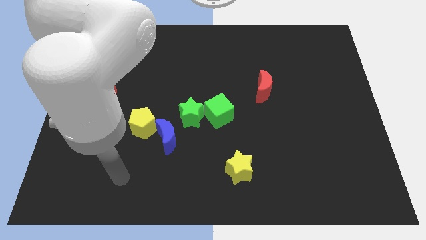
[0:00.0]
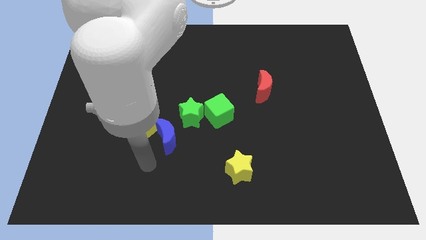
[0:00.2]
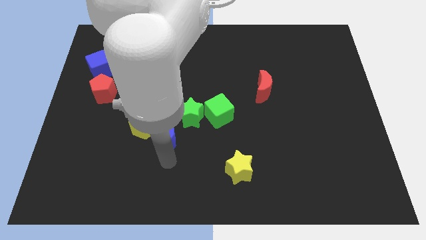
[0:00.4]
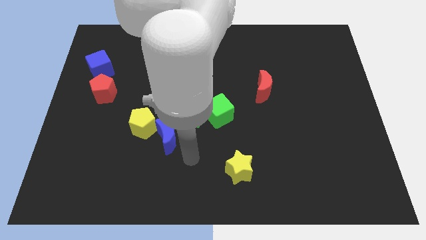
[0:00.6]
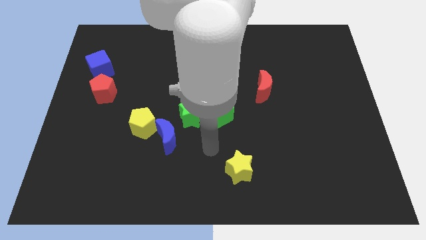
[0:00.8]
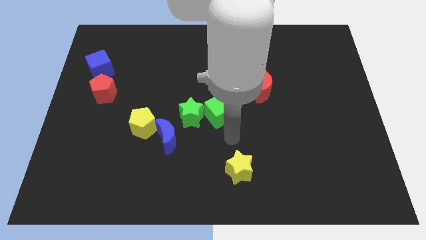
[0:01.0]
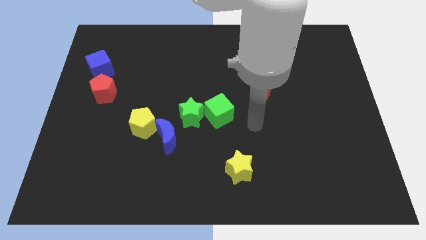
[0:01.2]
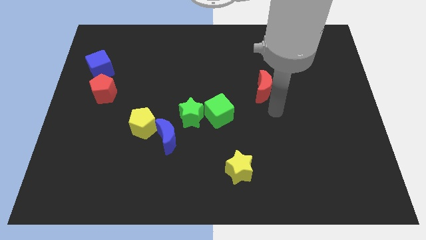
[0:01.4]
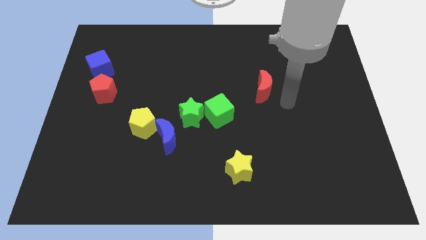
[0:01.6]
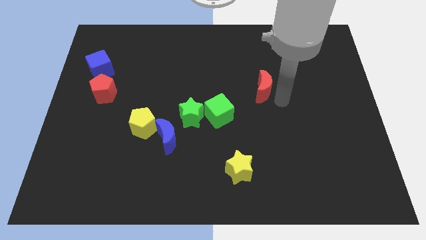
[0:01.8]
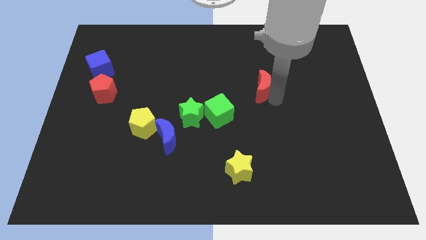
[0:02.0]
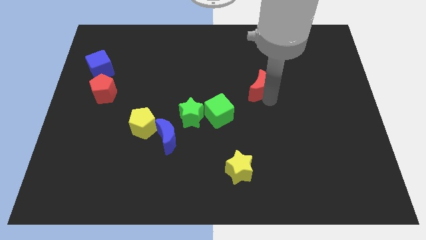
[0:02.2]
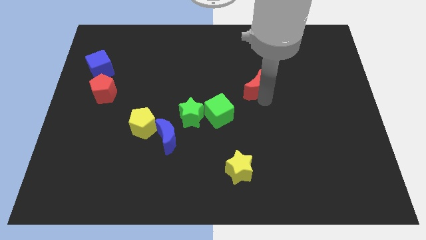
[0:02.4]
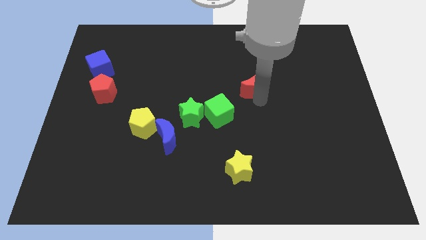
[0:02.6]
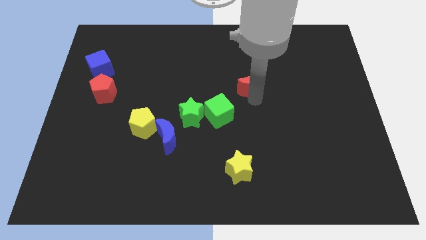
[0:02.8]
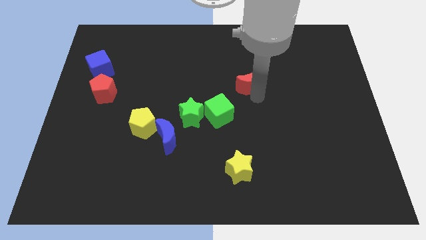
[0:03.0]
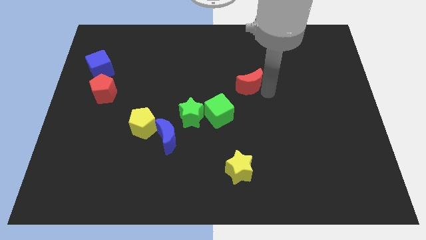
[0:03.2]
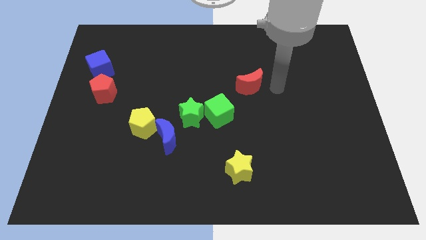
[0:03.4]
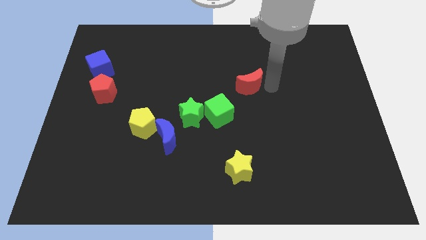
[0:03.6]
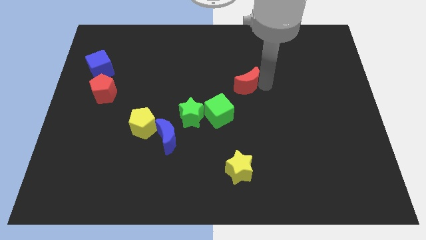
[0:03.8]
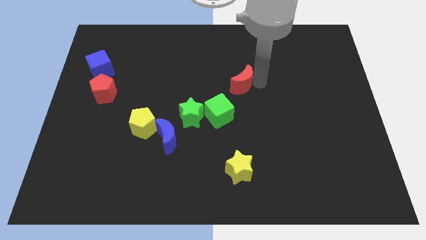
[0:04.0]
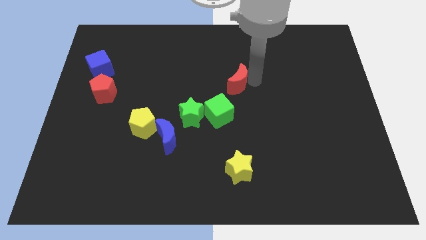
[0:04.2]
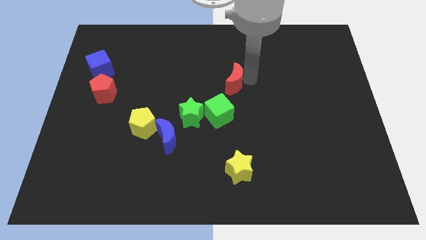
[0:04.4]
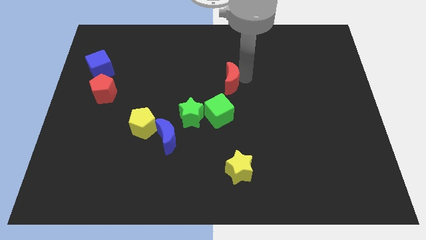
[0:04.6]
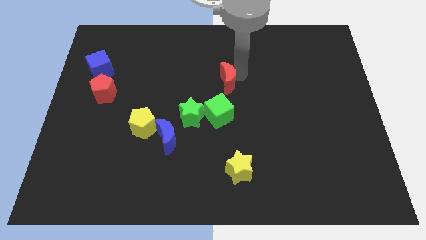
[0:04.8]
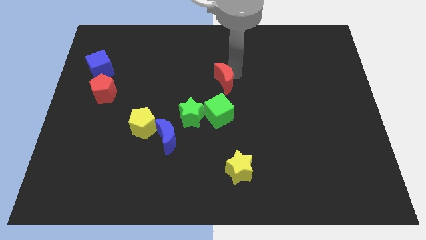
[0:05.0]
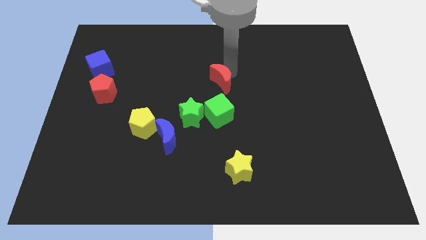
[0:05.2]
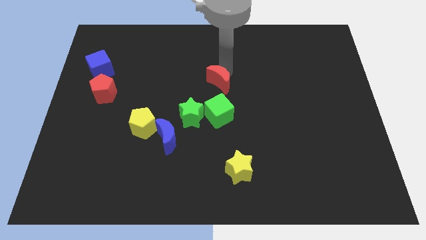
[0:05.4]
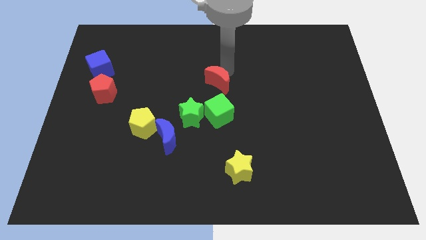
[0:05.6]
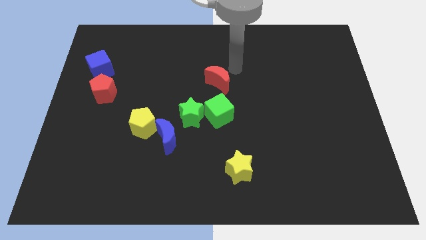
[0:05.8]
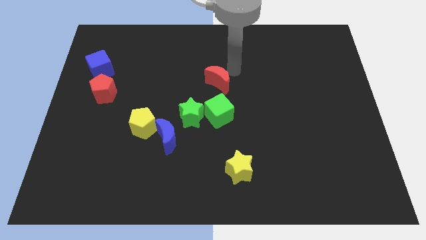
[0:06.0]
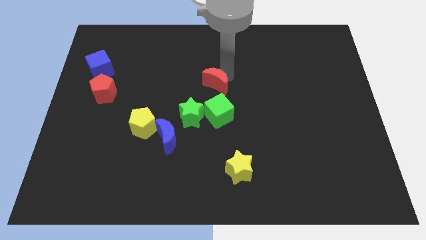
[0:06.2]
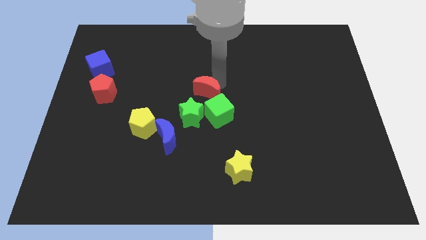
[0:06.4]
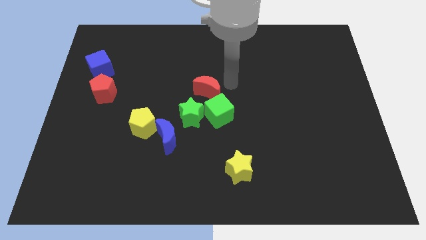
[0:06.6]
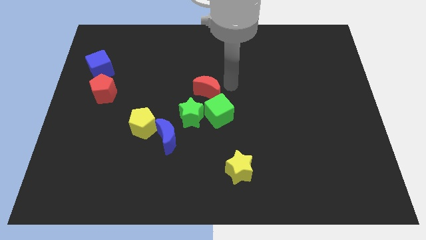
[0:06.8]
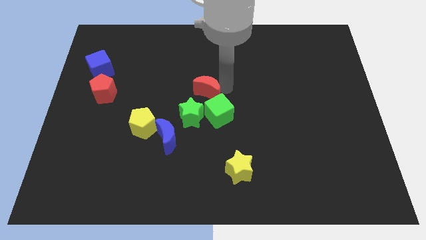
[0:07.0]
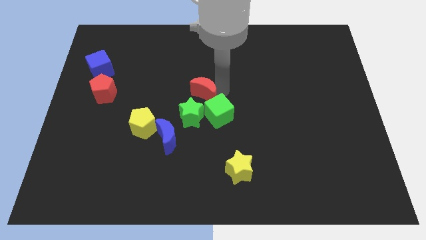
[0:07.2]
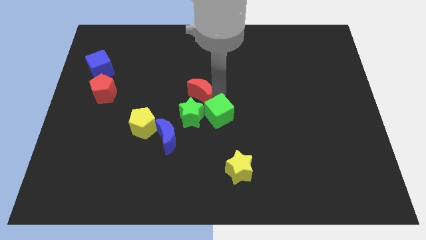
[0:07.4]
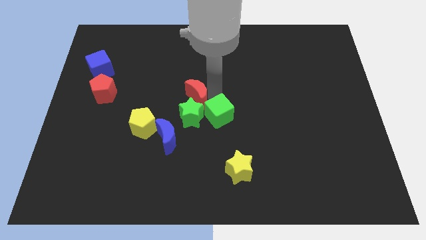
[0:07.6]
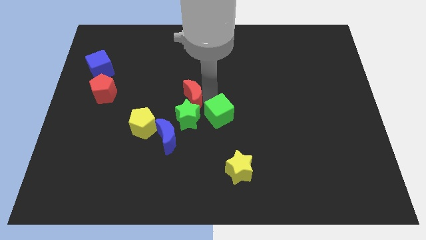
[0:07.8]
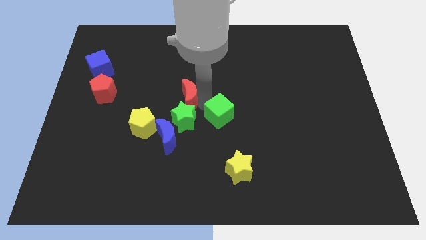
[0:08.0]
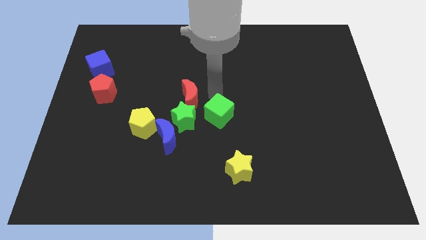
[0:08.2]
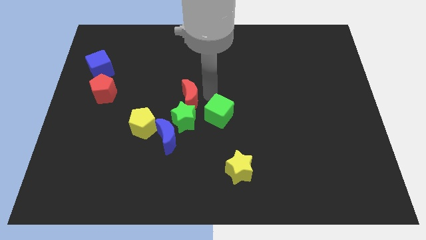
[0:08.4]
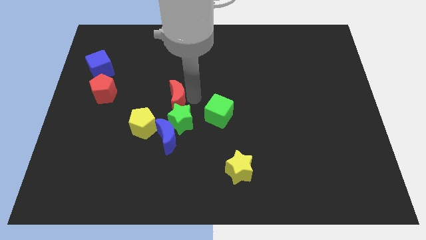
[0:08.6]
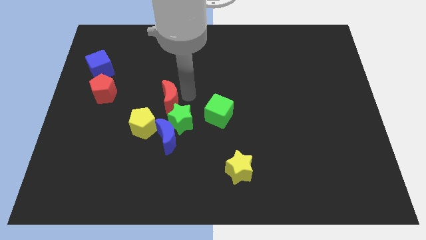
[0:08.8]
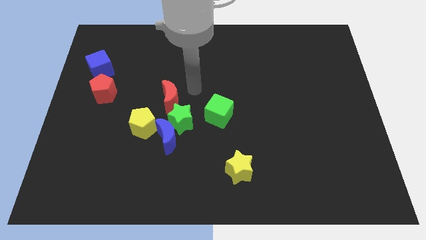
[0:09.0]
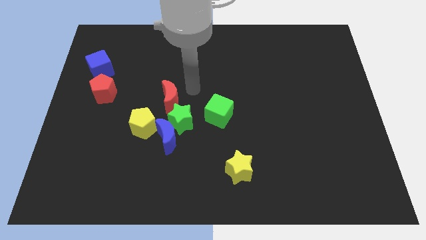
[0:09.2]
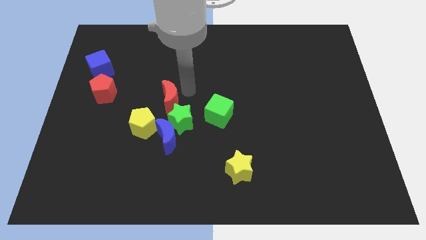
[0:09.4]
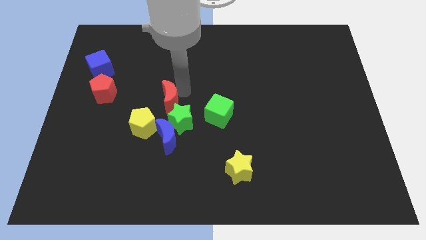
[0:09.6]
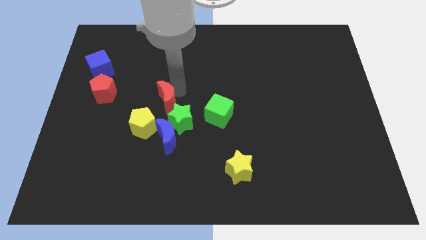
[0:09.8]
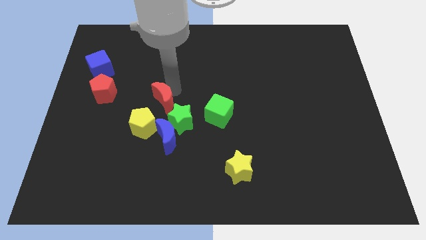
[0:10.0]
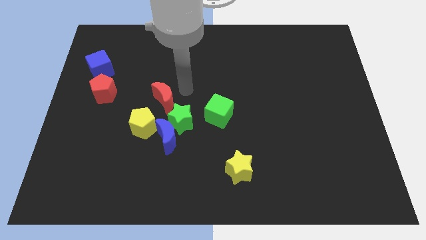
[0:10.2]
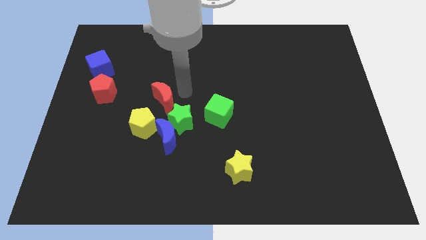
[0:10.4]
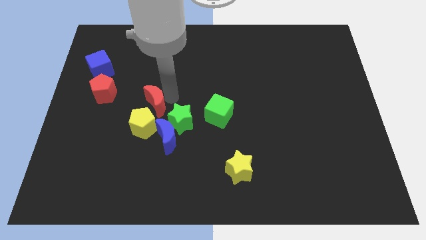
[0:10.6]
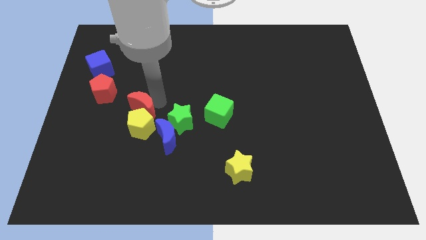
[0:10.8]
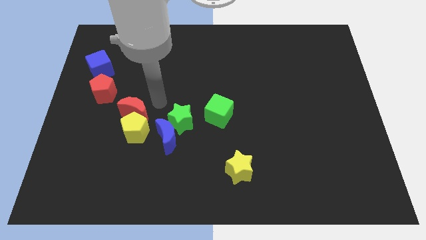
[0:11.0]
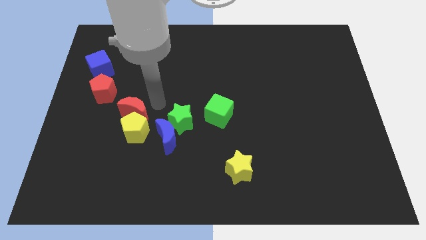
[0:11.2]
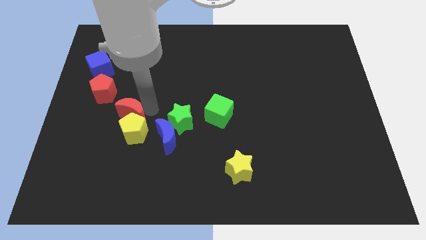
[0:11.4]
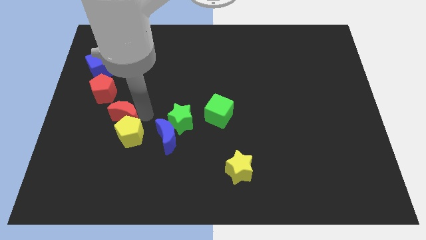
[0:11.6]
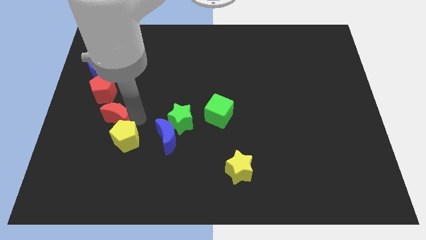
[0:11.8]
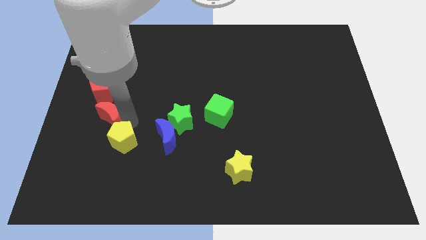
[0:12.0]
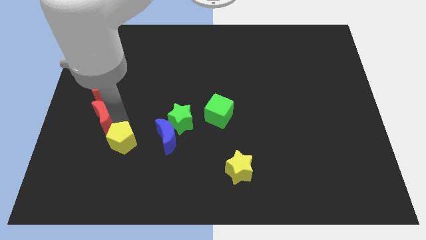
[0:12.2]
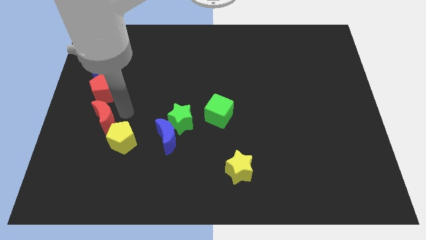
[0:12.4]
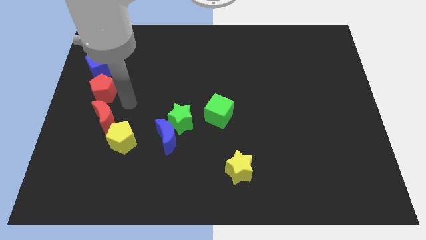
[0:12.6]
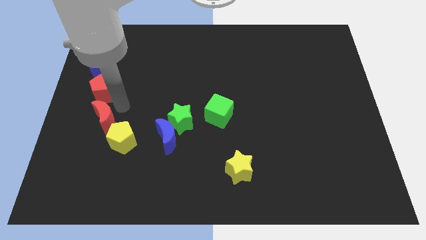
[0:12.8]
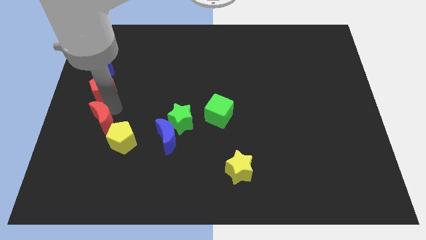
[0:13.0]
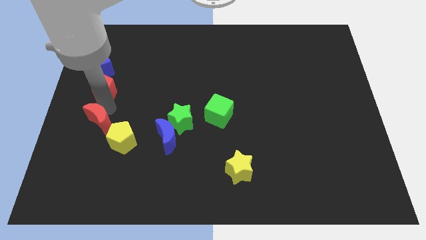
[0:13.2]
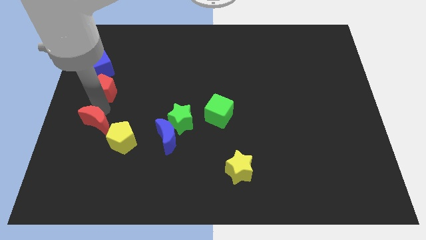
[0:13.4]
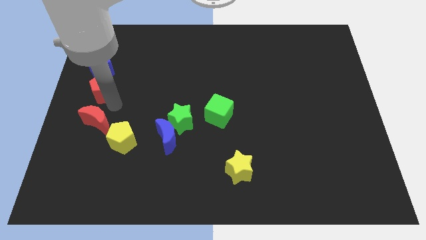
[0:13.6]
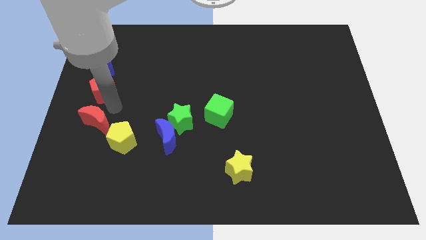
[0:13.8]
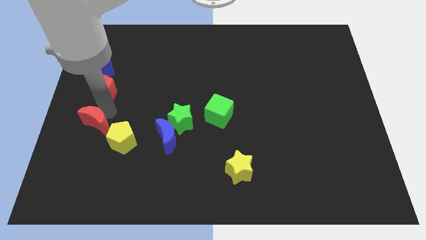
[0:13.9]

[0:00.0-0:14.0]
push the red moon just left of the yellow pentagon
